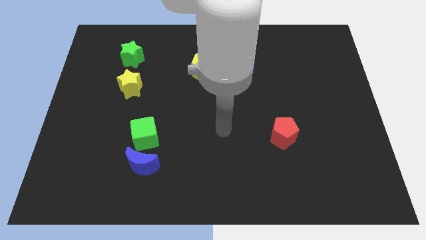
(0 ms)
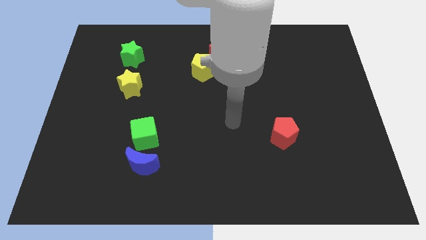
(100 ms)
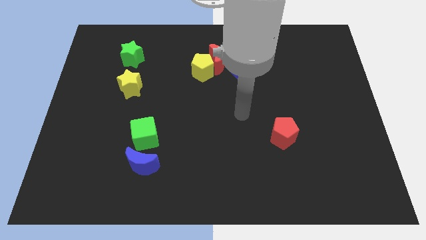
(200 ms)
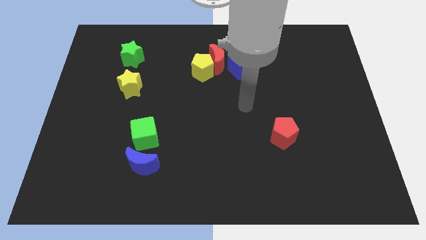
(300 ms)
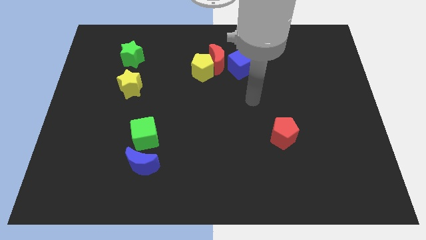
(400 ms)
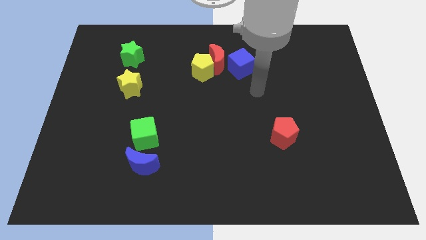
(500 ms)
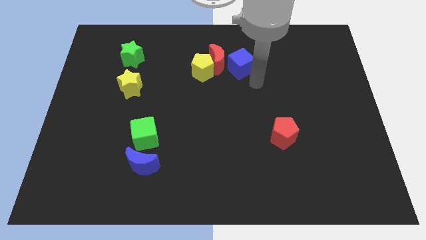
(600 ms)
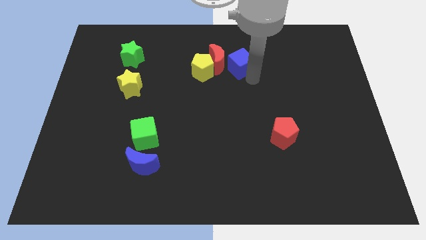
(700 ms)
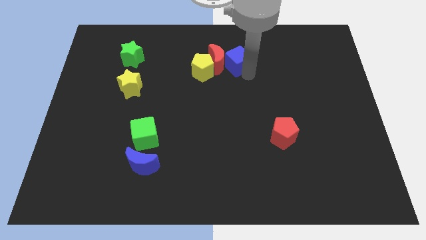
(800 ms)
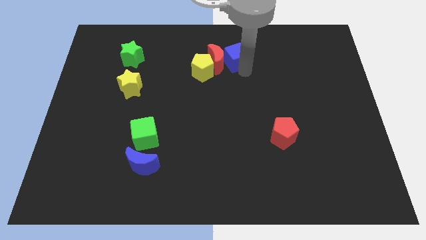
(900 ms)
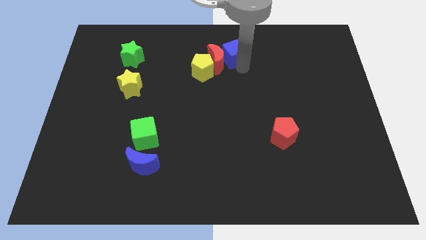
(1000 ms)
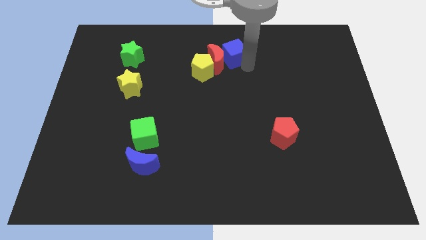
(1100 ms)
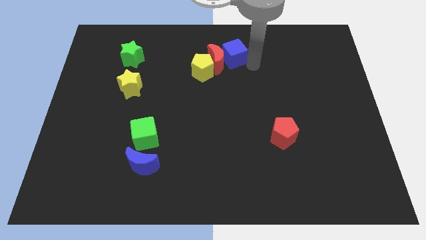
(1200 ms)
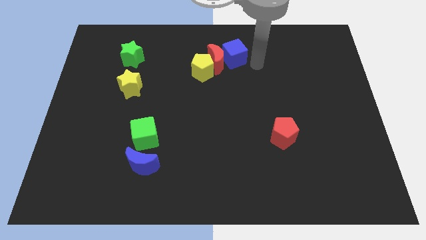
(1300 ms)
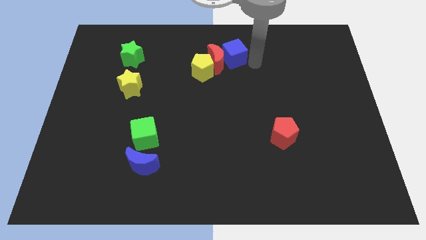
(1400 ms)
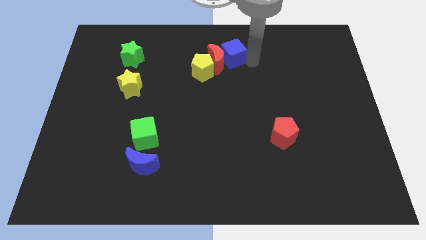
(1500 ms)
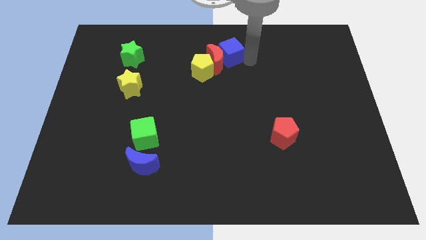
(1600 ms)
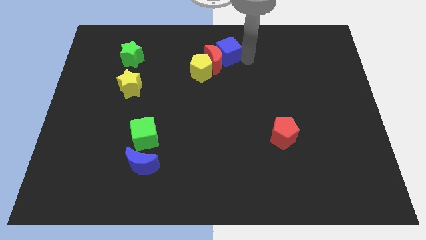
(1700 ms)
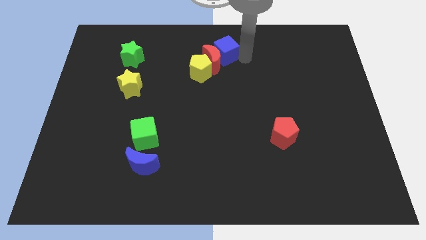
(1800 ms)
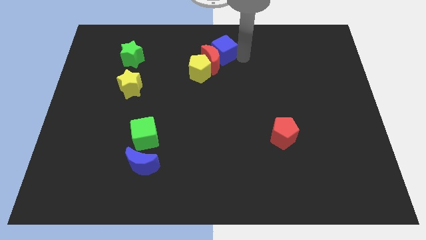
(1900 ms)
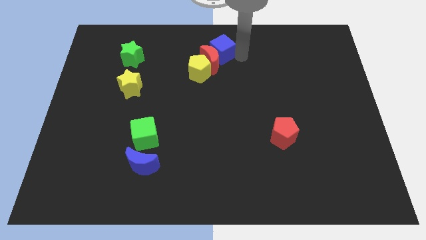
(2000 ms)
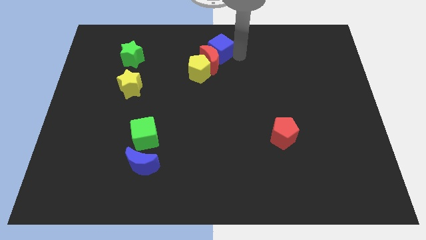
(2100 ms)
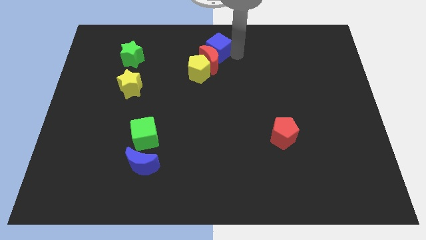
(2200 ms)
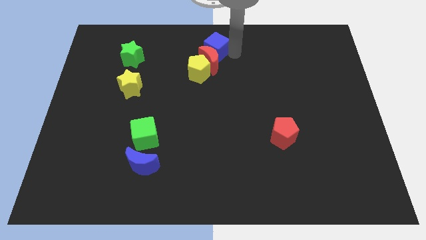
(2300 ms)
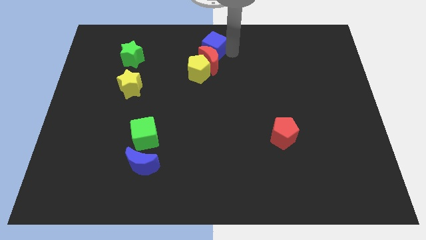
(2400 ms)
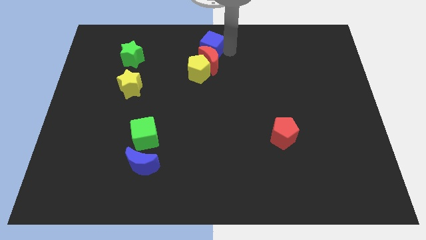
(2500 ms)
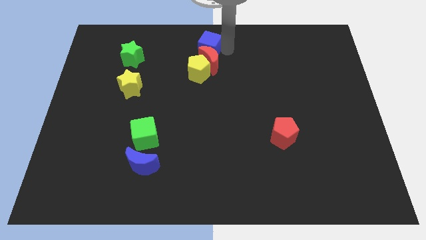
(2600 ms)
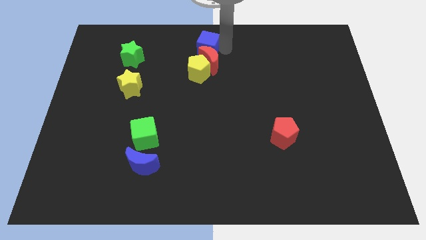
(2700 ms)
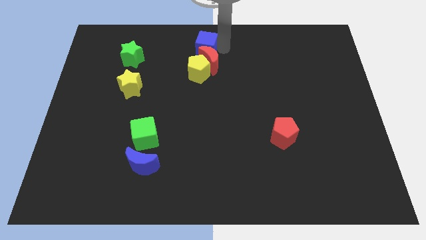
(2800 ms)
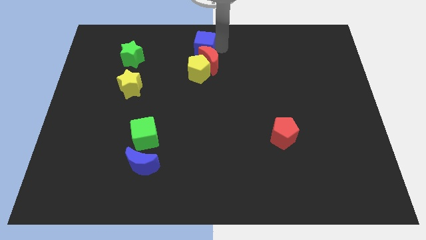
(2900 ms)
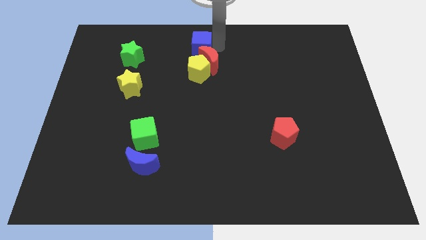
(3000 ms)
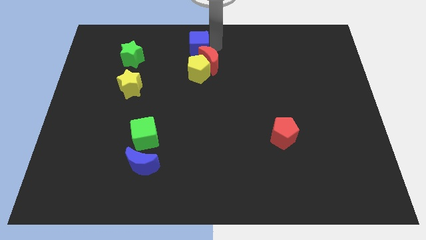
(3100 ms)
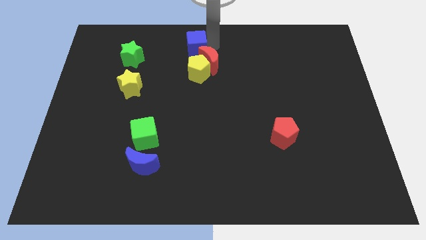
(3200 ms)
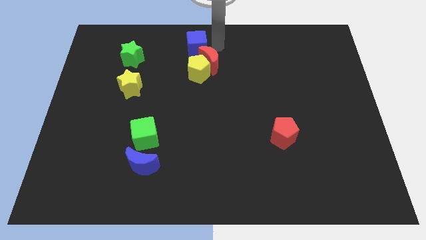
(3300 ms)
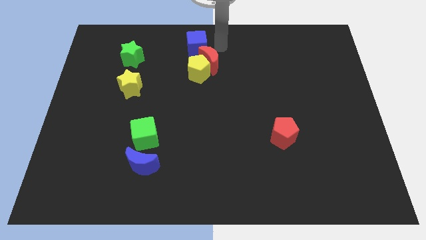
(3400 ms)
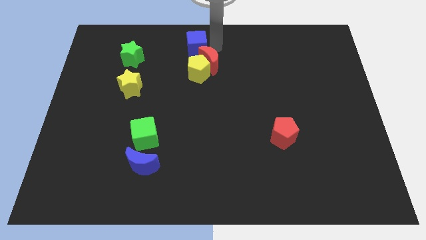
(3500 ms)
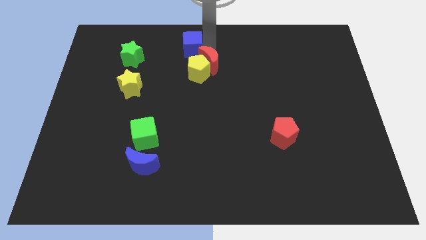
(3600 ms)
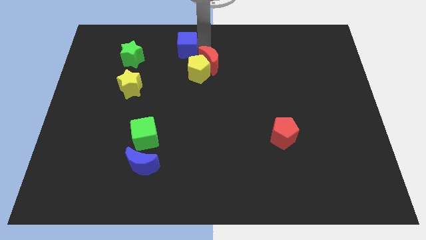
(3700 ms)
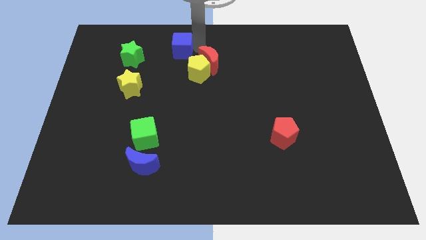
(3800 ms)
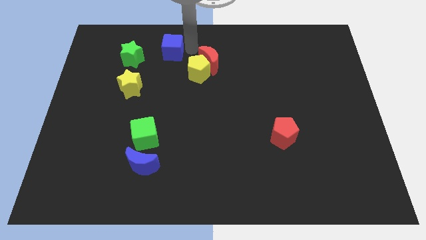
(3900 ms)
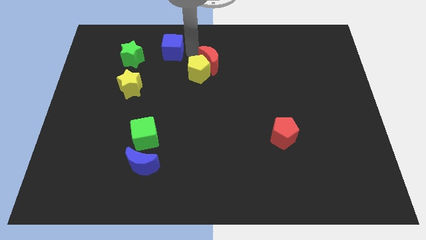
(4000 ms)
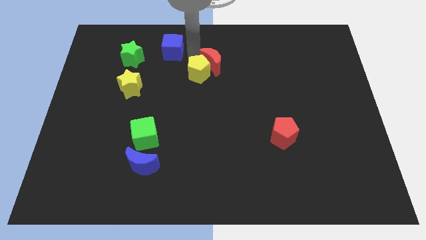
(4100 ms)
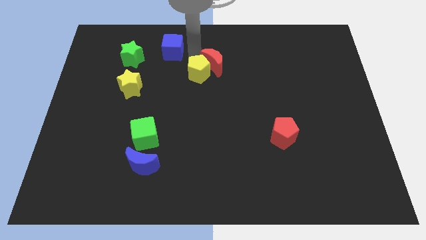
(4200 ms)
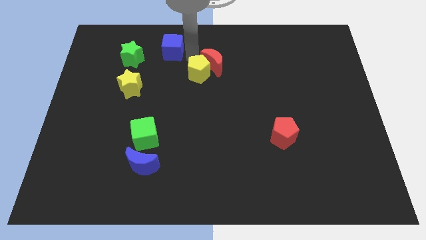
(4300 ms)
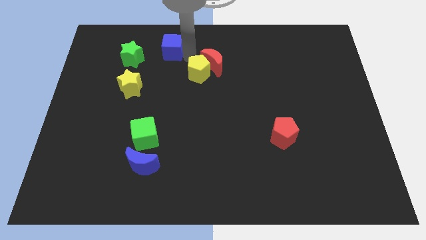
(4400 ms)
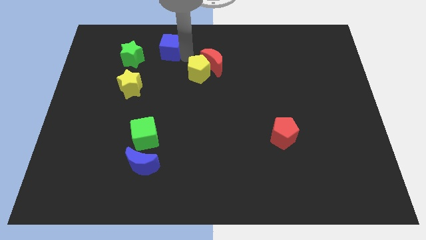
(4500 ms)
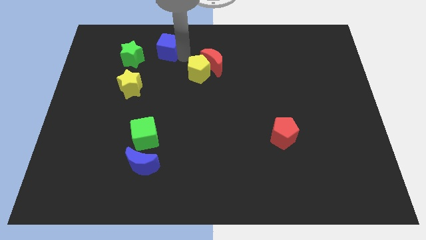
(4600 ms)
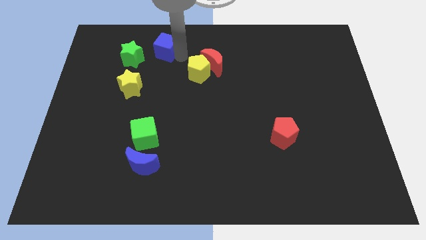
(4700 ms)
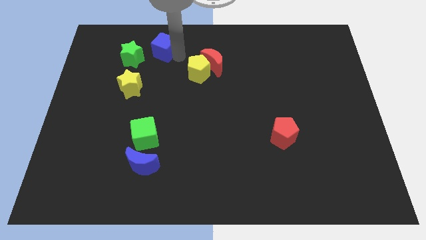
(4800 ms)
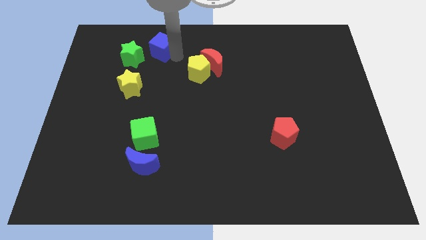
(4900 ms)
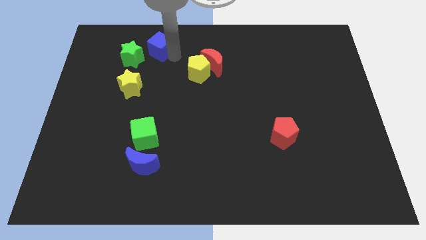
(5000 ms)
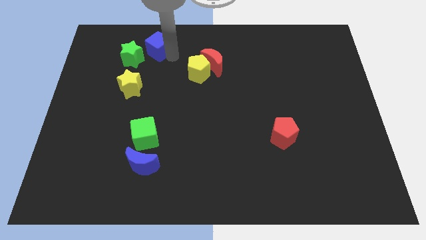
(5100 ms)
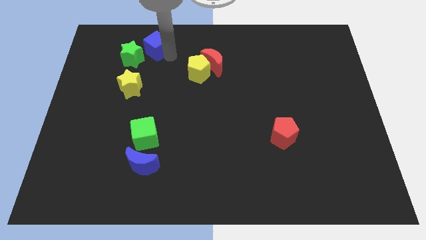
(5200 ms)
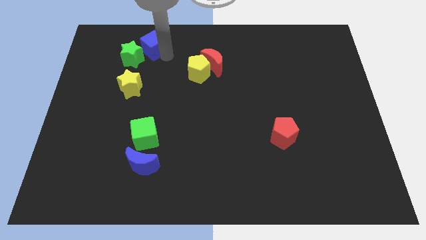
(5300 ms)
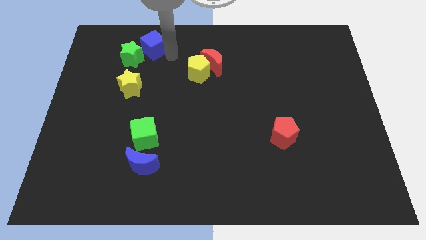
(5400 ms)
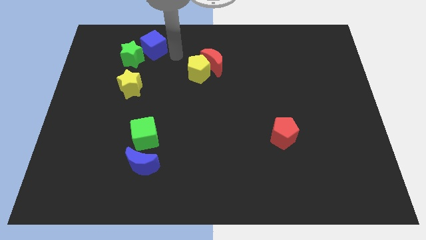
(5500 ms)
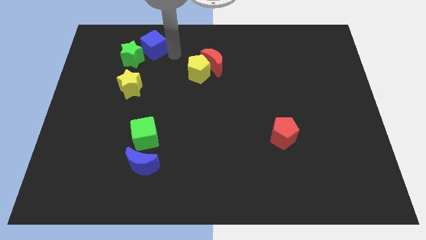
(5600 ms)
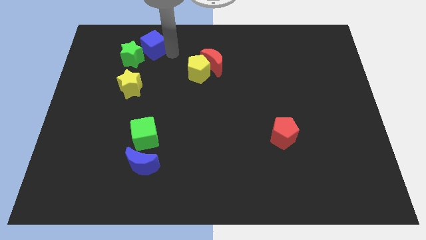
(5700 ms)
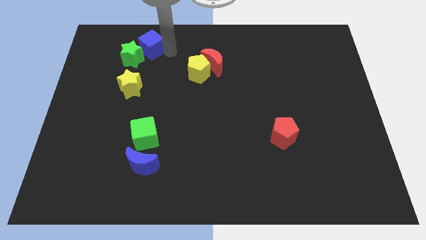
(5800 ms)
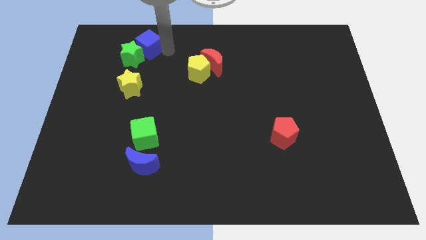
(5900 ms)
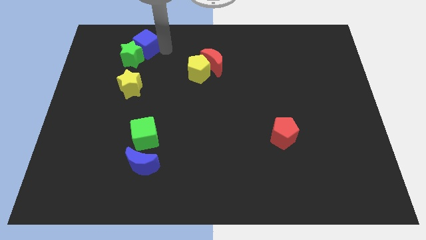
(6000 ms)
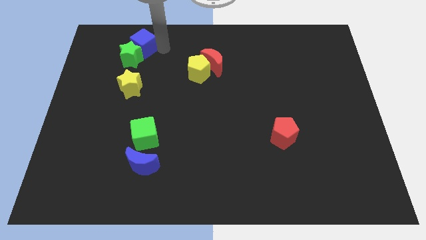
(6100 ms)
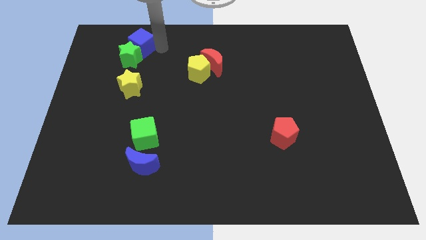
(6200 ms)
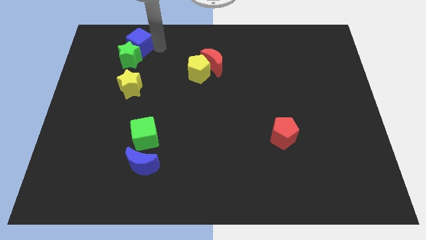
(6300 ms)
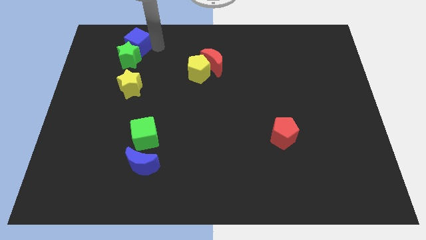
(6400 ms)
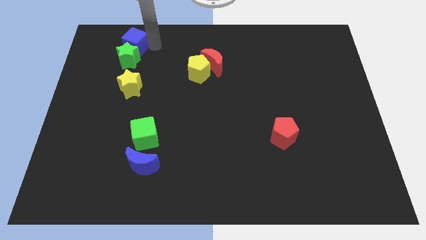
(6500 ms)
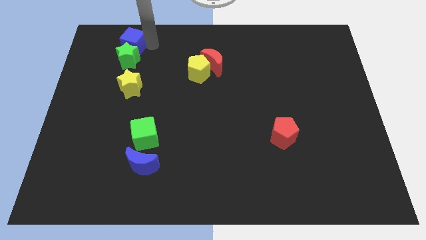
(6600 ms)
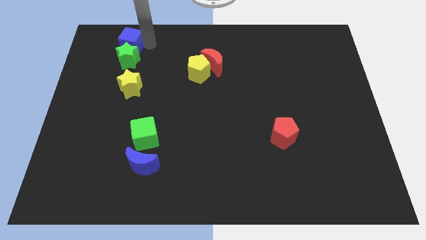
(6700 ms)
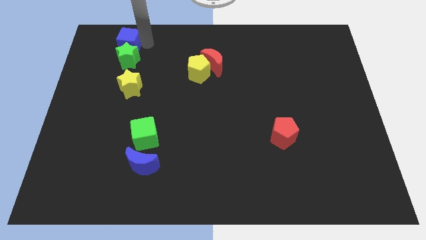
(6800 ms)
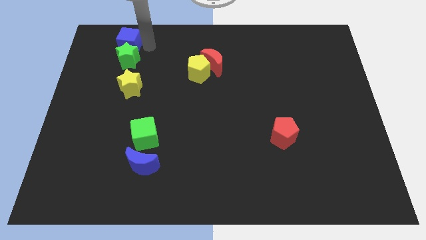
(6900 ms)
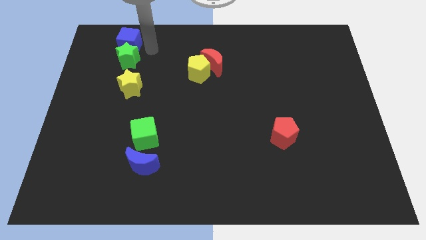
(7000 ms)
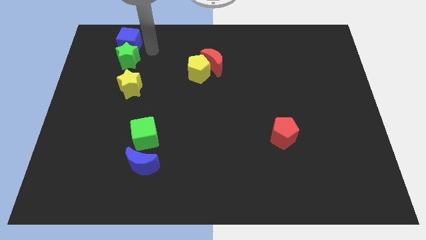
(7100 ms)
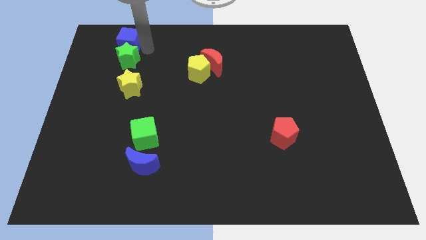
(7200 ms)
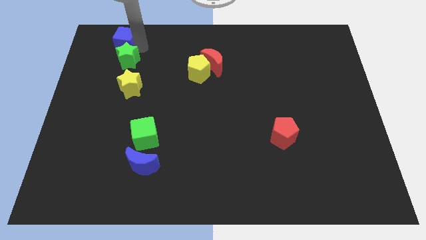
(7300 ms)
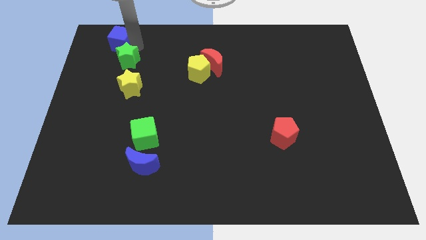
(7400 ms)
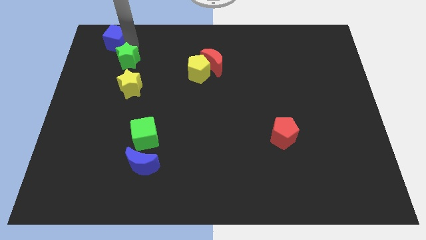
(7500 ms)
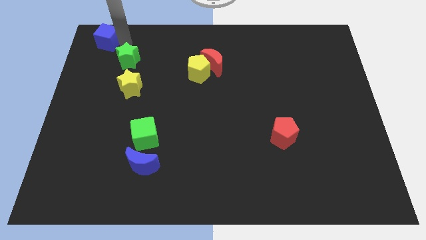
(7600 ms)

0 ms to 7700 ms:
push the blue cube to the top left
